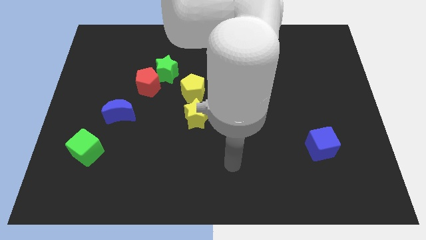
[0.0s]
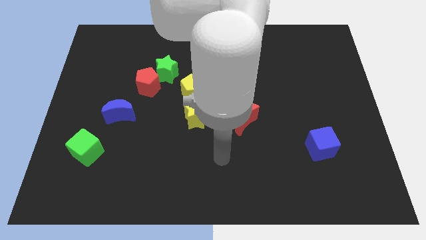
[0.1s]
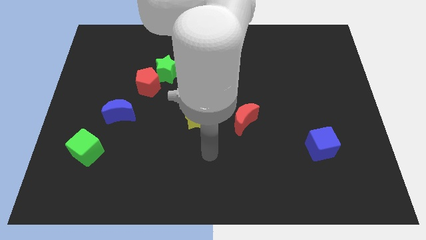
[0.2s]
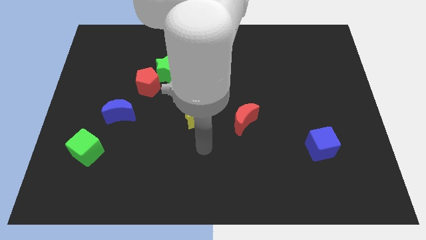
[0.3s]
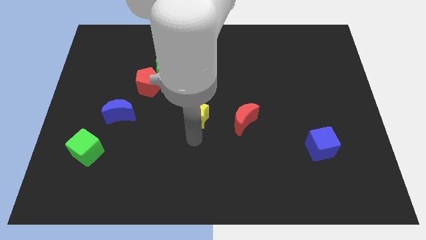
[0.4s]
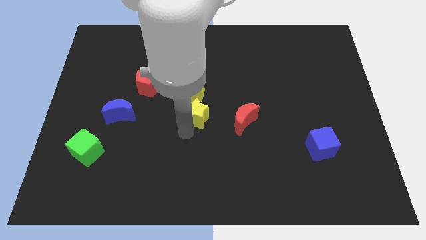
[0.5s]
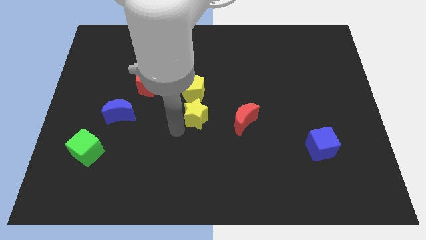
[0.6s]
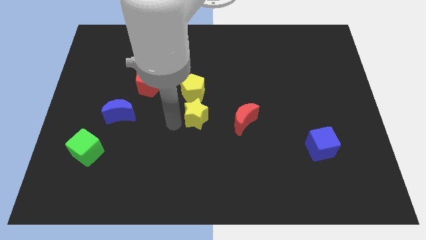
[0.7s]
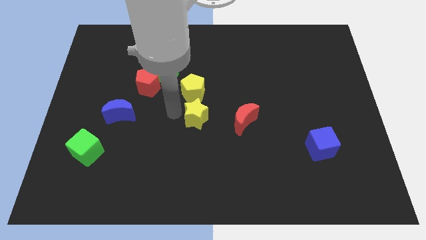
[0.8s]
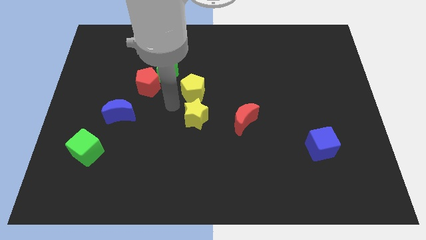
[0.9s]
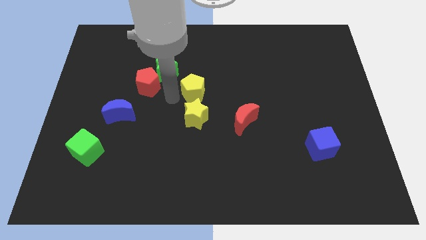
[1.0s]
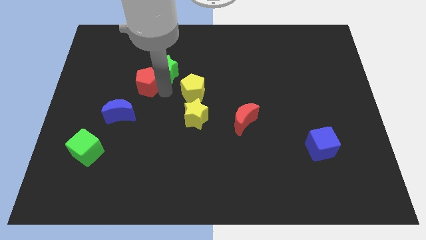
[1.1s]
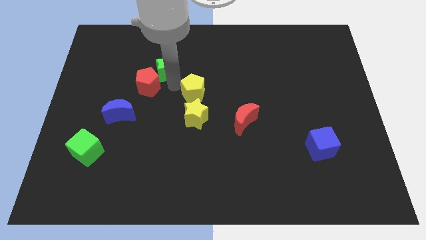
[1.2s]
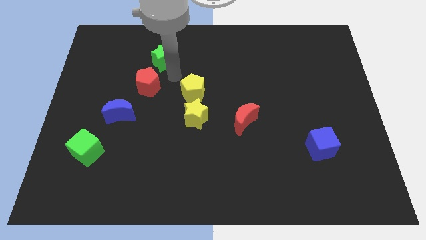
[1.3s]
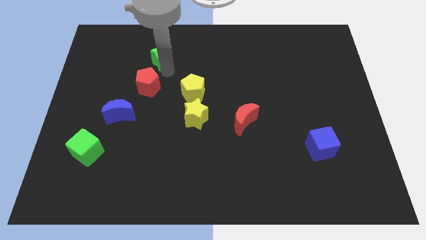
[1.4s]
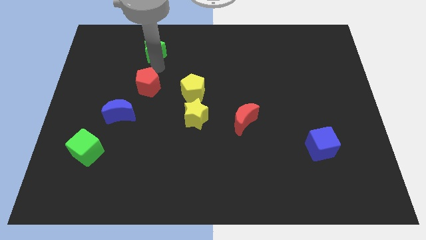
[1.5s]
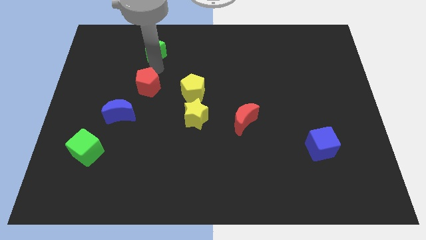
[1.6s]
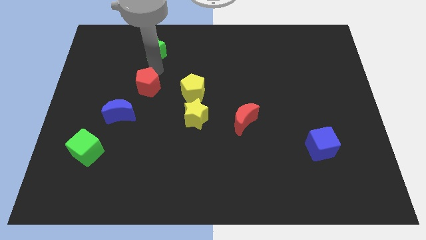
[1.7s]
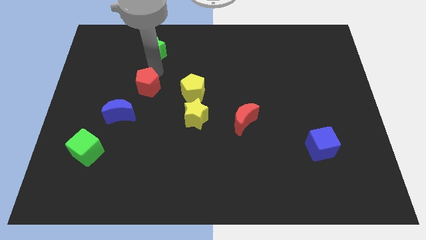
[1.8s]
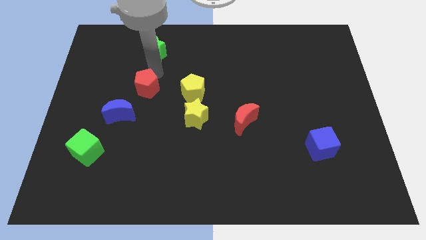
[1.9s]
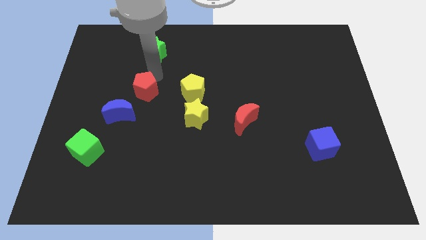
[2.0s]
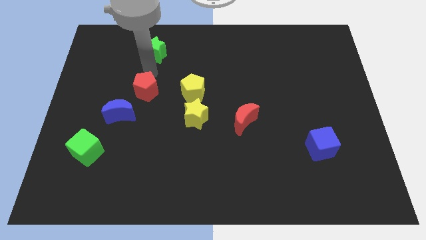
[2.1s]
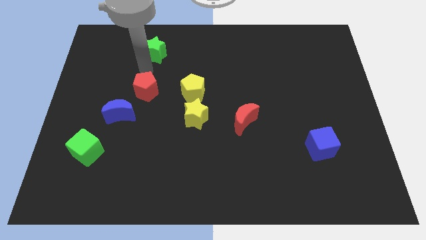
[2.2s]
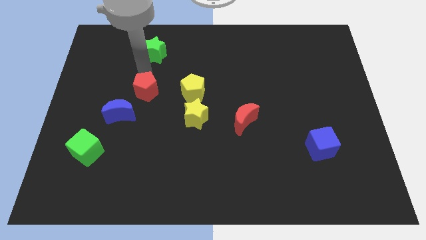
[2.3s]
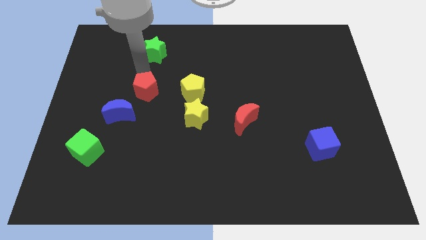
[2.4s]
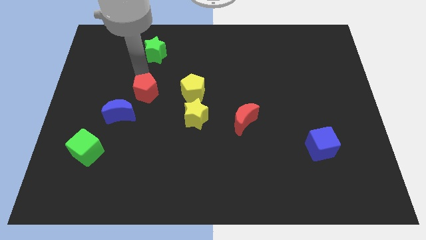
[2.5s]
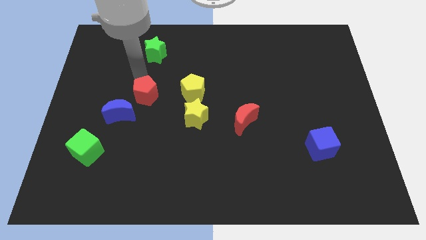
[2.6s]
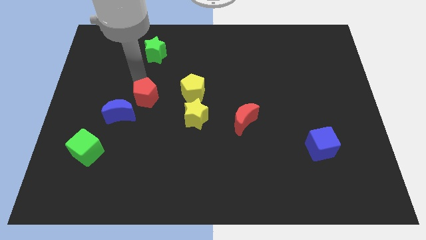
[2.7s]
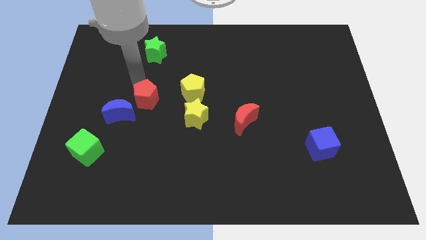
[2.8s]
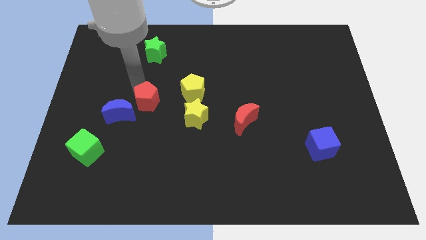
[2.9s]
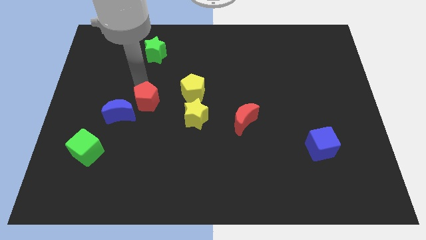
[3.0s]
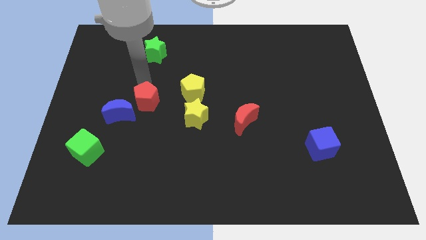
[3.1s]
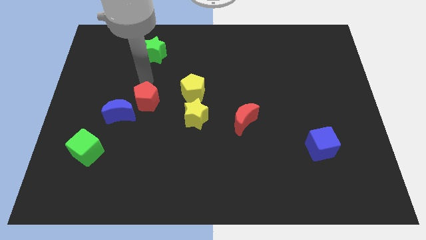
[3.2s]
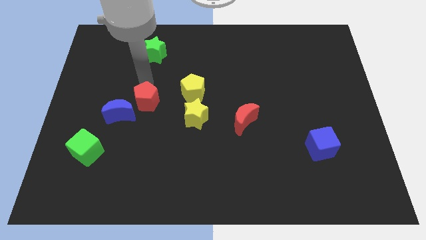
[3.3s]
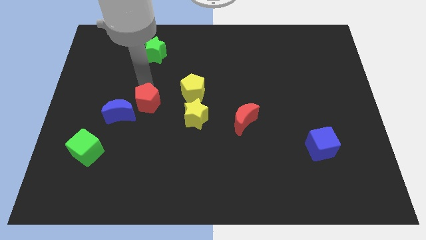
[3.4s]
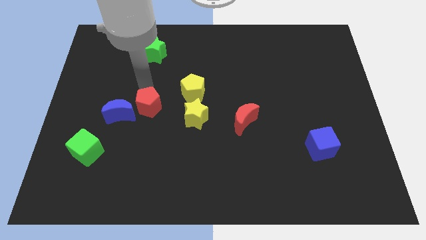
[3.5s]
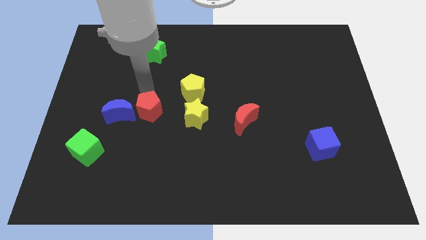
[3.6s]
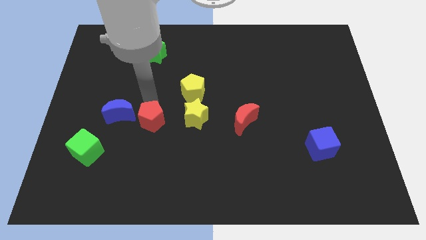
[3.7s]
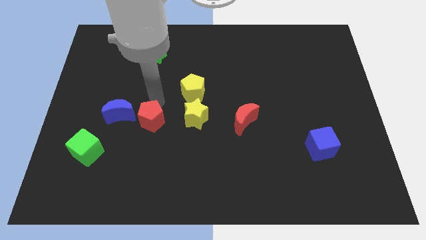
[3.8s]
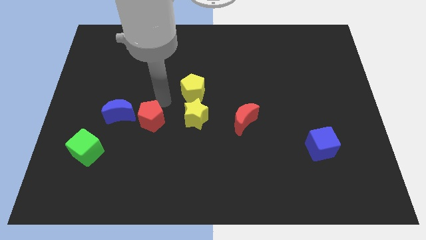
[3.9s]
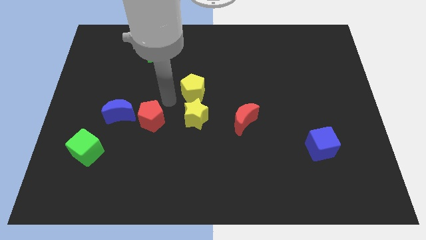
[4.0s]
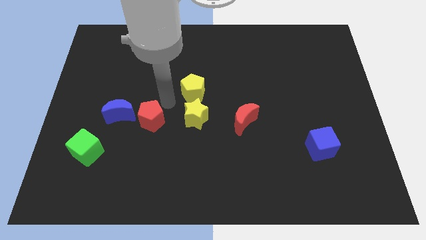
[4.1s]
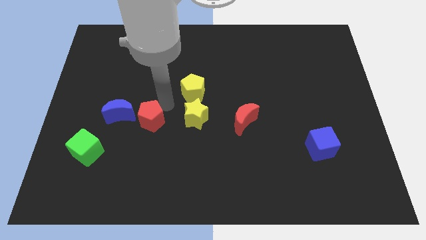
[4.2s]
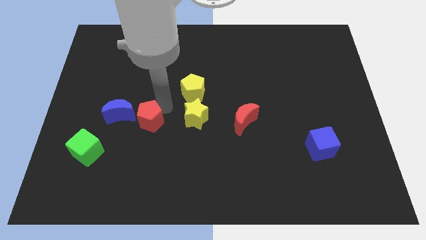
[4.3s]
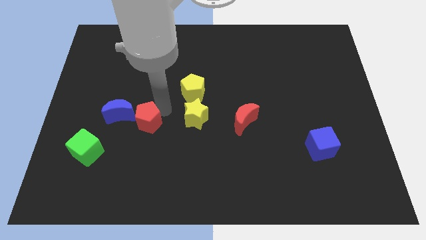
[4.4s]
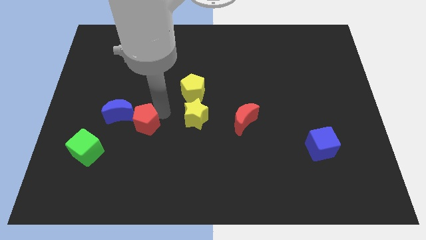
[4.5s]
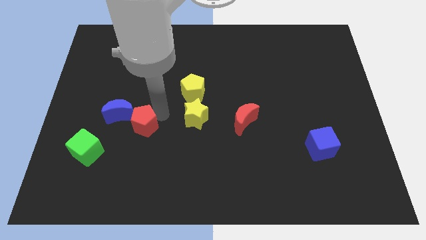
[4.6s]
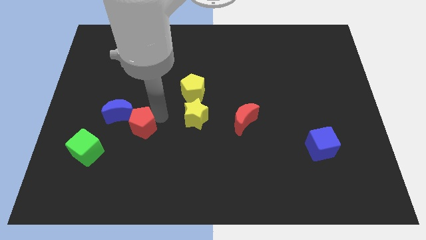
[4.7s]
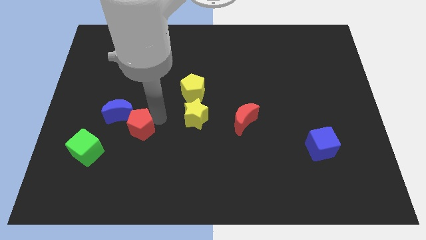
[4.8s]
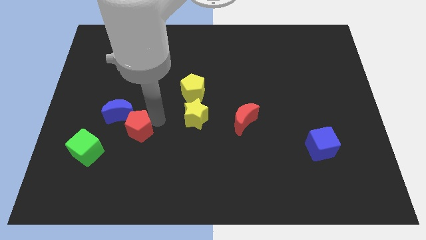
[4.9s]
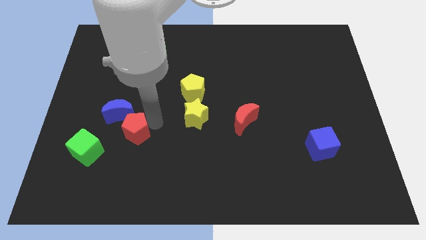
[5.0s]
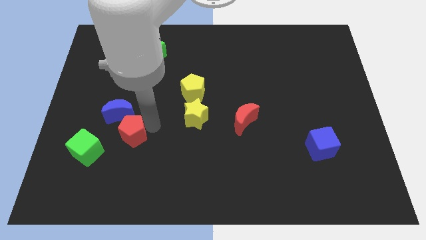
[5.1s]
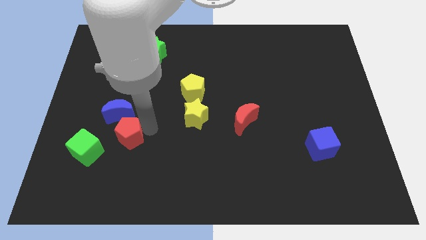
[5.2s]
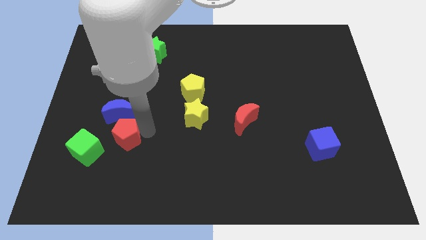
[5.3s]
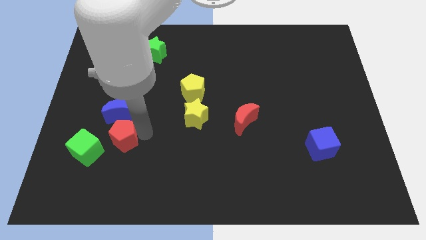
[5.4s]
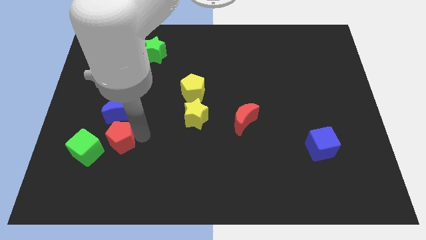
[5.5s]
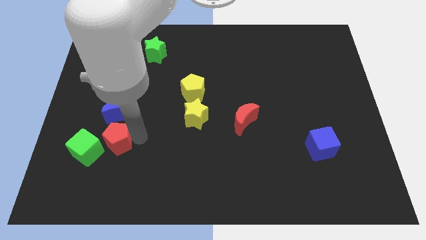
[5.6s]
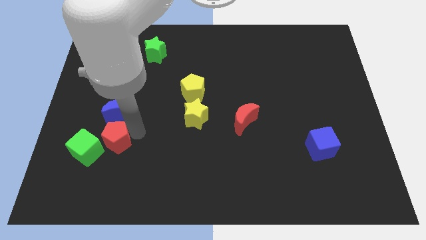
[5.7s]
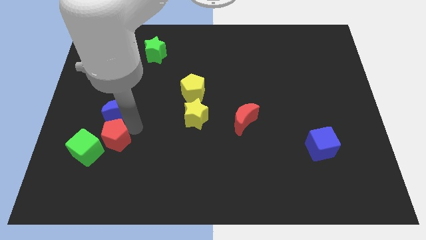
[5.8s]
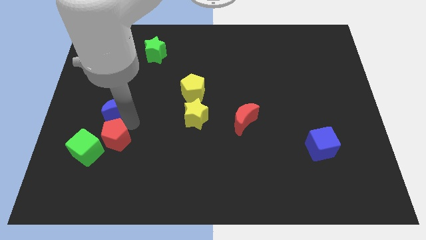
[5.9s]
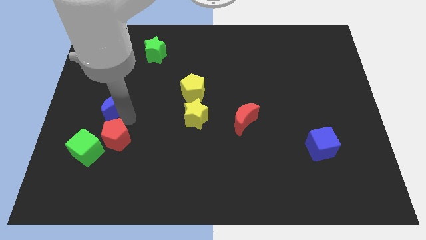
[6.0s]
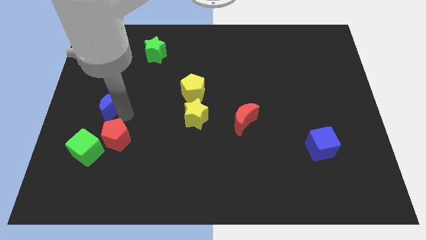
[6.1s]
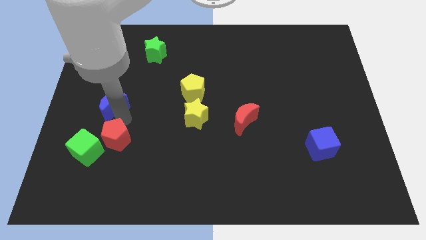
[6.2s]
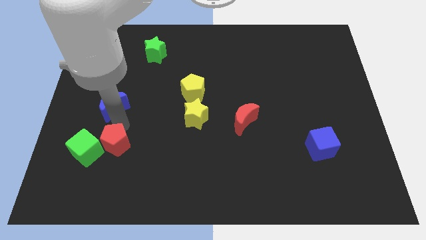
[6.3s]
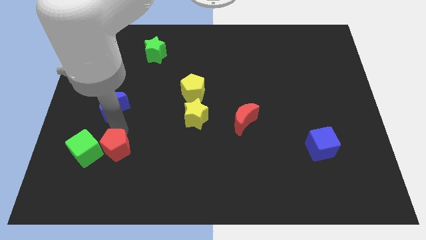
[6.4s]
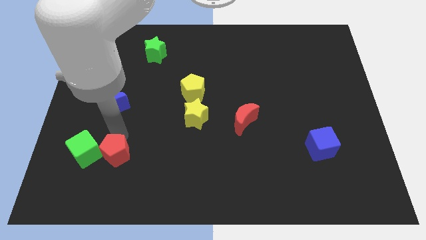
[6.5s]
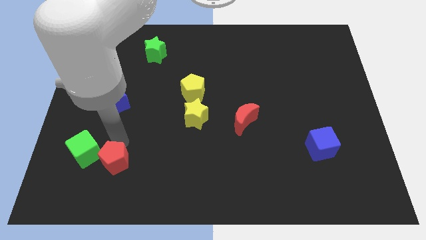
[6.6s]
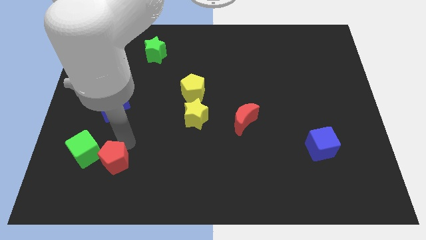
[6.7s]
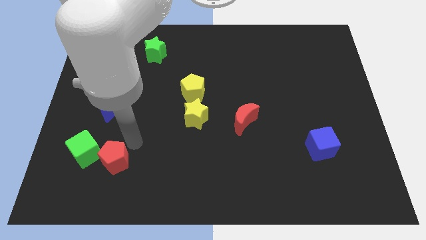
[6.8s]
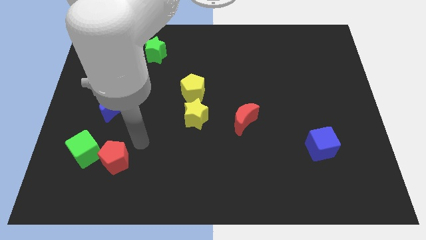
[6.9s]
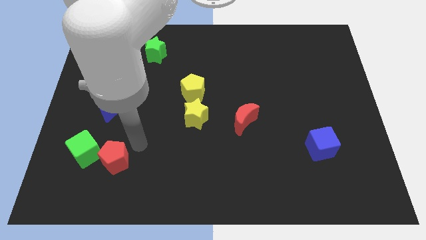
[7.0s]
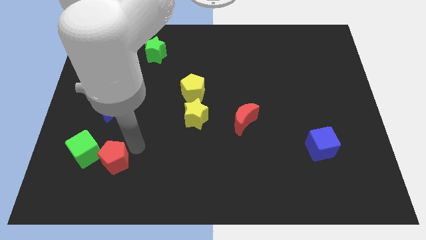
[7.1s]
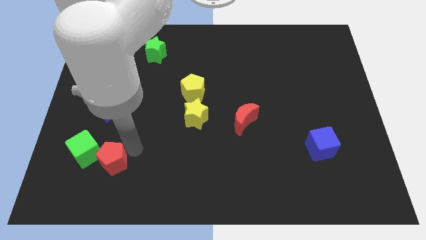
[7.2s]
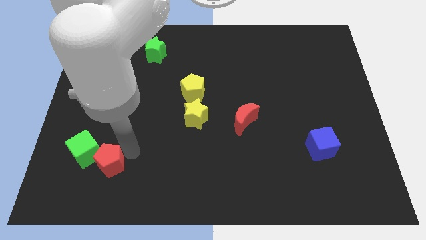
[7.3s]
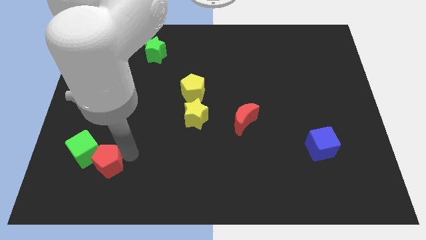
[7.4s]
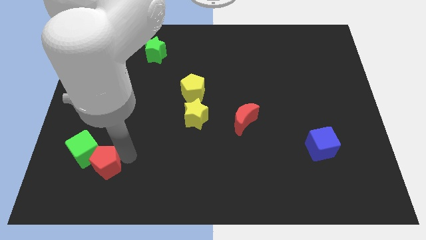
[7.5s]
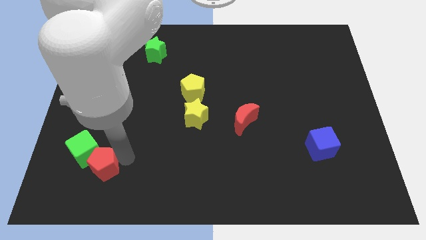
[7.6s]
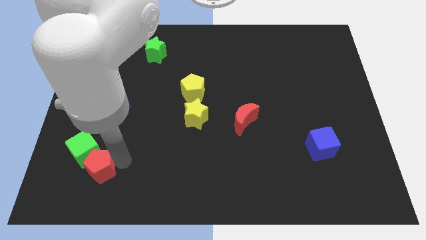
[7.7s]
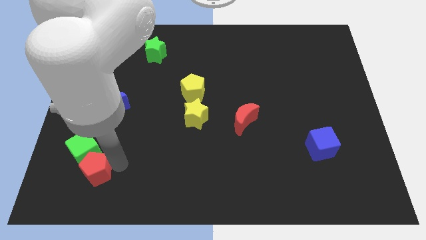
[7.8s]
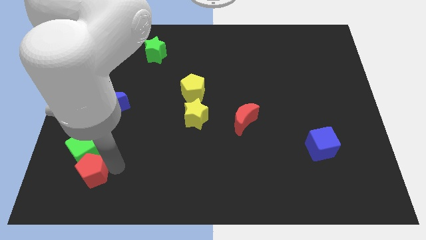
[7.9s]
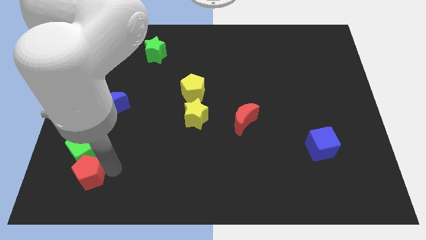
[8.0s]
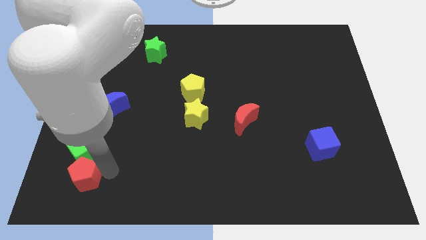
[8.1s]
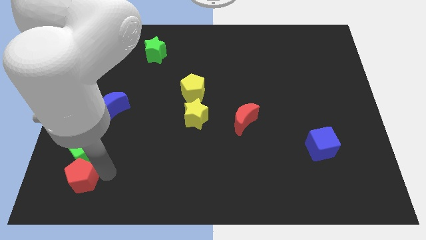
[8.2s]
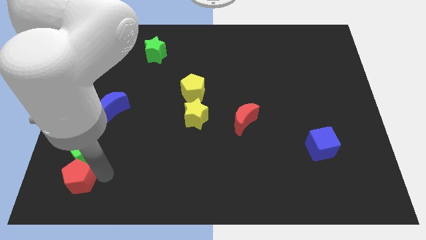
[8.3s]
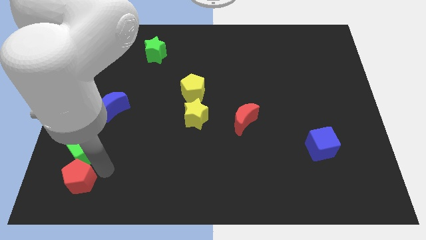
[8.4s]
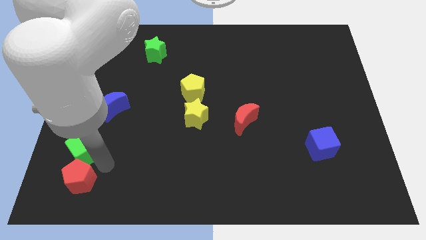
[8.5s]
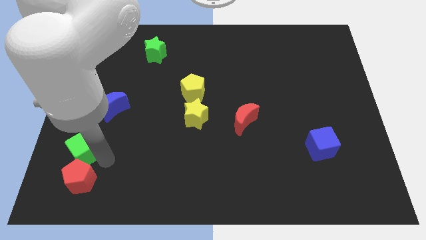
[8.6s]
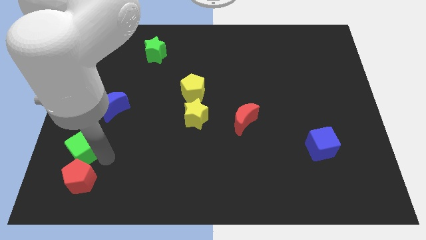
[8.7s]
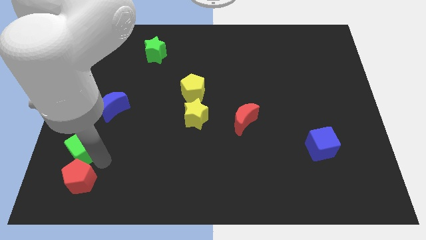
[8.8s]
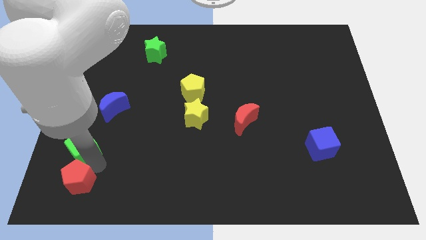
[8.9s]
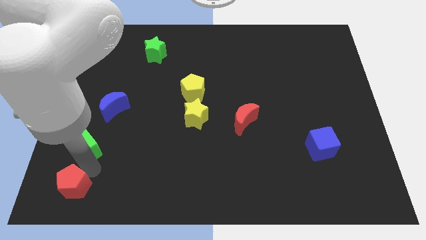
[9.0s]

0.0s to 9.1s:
put the red pentagon to the lower left corner
